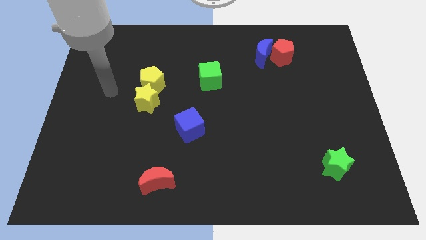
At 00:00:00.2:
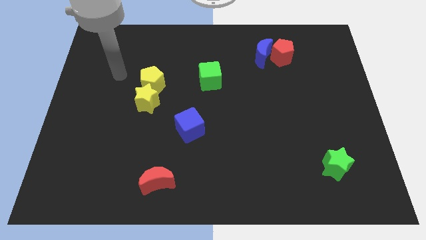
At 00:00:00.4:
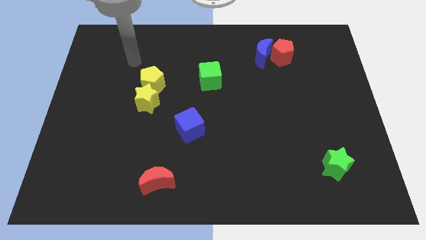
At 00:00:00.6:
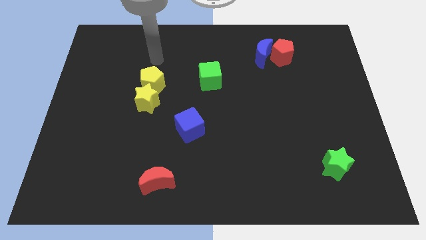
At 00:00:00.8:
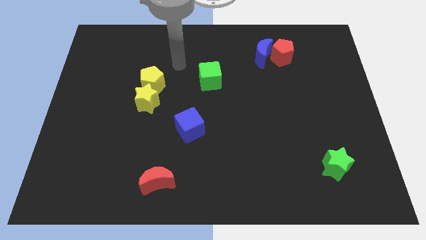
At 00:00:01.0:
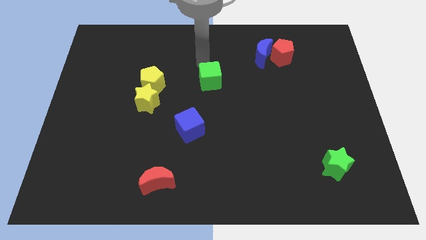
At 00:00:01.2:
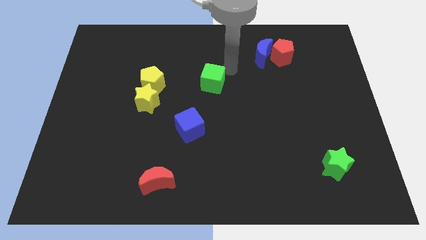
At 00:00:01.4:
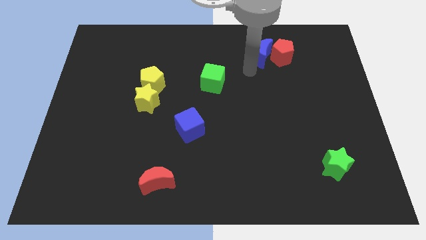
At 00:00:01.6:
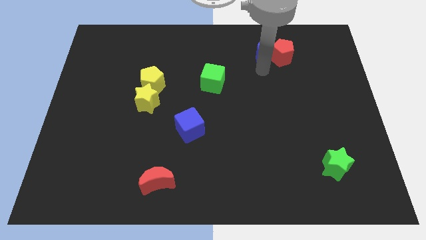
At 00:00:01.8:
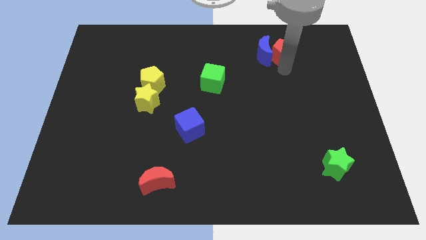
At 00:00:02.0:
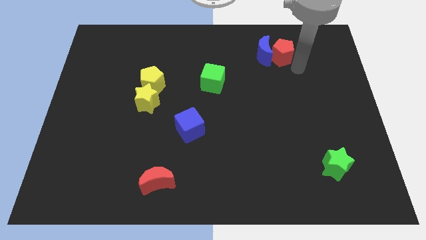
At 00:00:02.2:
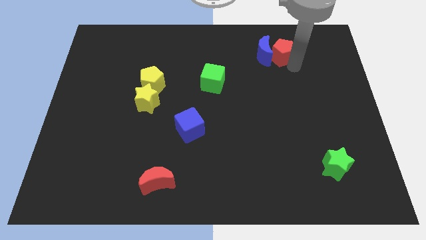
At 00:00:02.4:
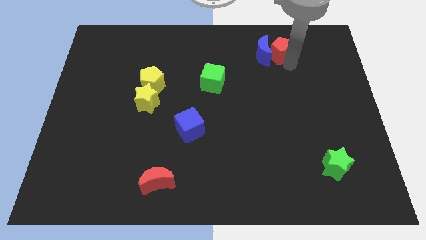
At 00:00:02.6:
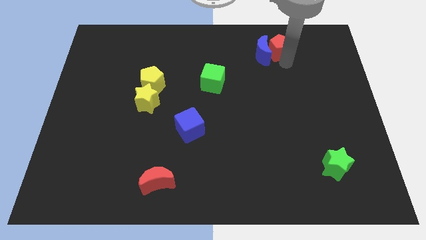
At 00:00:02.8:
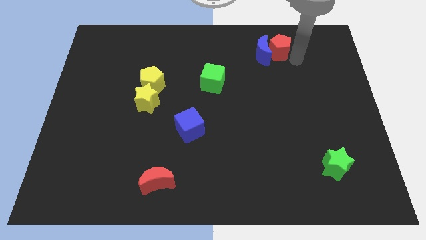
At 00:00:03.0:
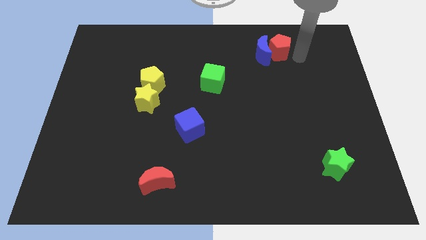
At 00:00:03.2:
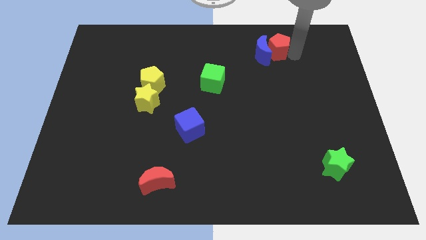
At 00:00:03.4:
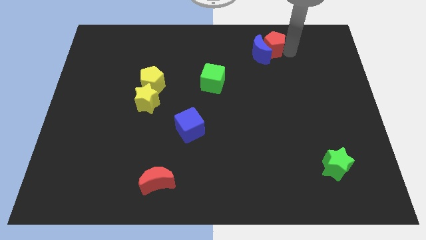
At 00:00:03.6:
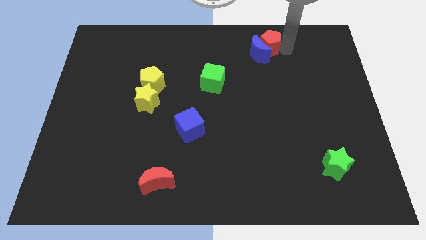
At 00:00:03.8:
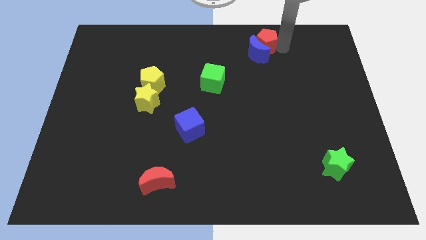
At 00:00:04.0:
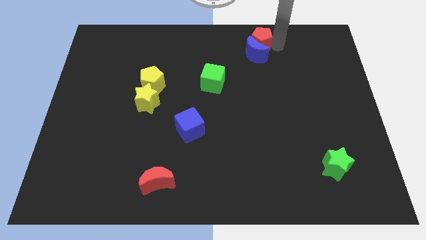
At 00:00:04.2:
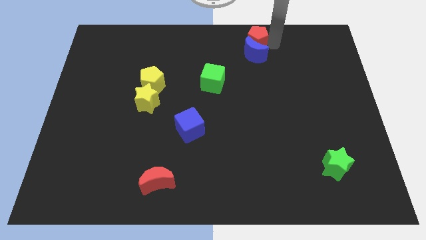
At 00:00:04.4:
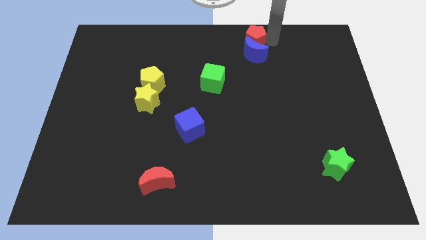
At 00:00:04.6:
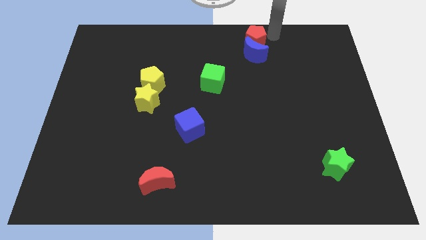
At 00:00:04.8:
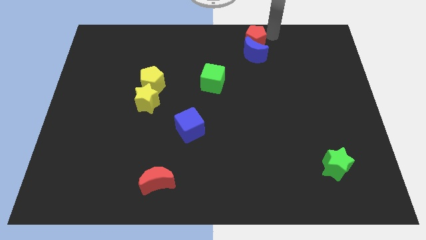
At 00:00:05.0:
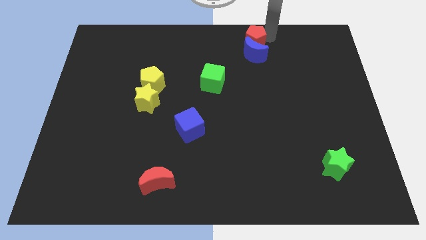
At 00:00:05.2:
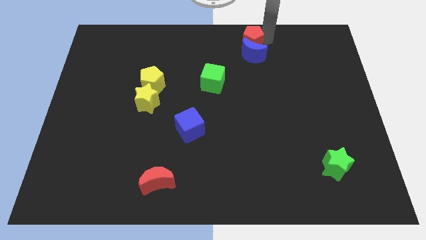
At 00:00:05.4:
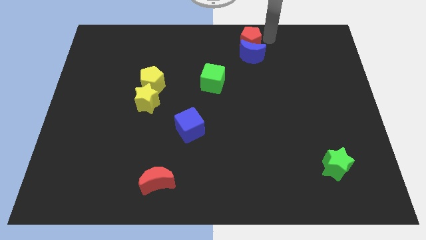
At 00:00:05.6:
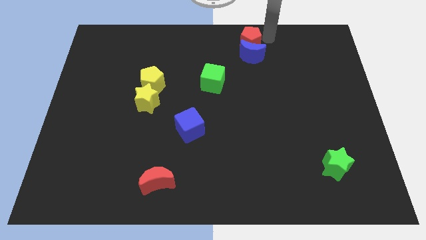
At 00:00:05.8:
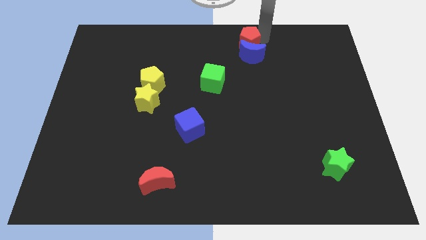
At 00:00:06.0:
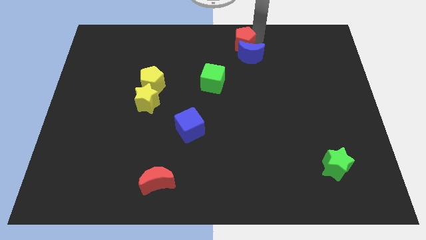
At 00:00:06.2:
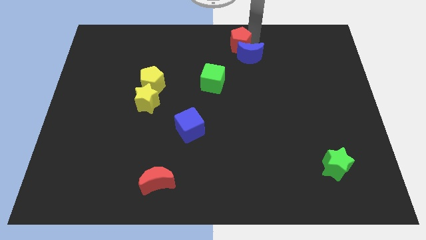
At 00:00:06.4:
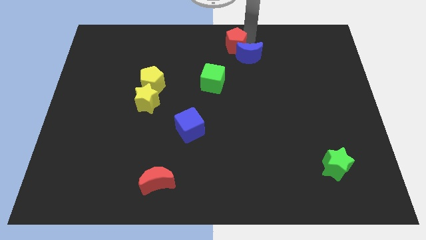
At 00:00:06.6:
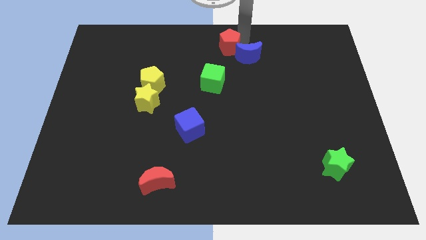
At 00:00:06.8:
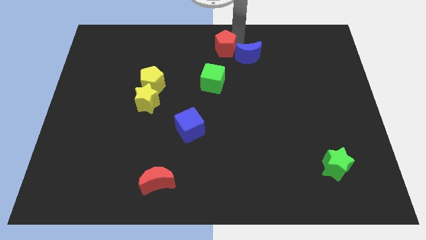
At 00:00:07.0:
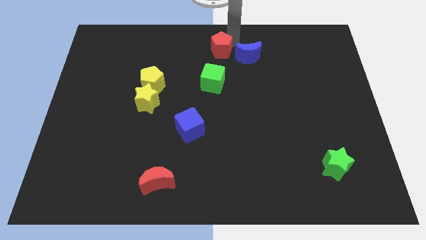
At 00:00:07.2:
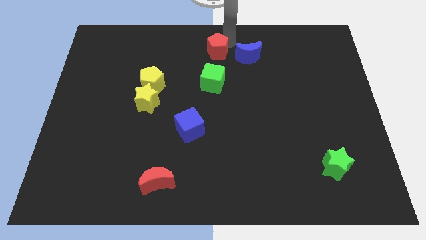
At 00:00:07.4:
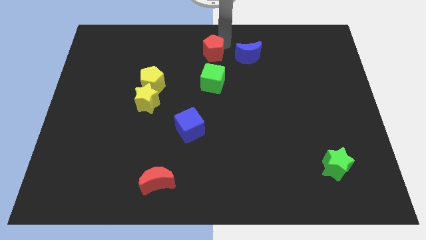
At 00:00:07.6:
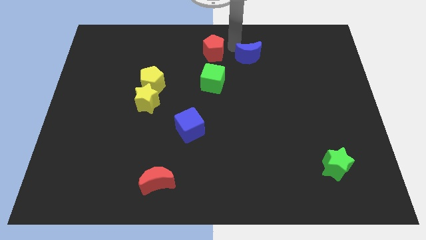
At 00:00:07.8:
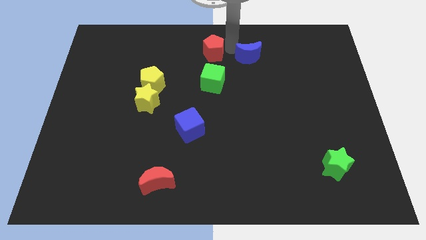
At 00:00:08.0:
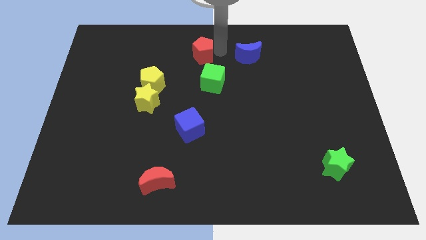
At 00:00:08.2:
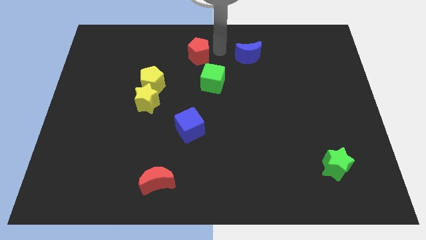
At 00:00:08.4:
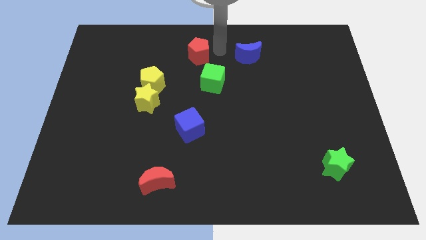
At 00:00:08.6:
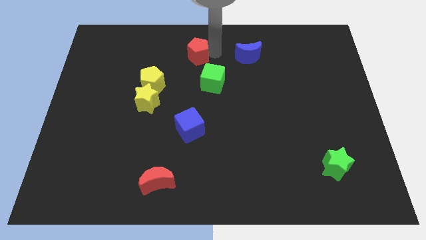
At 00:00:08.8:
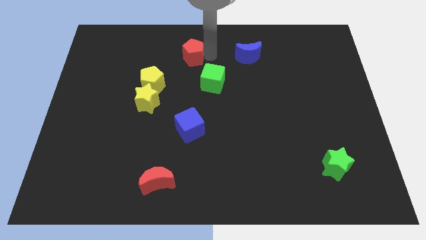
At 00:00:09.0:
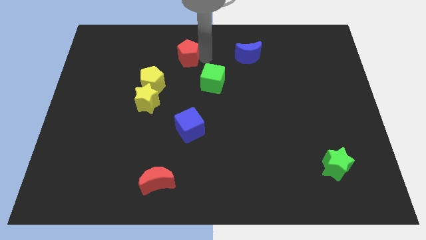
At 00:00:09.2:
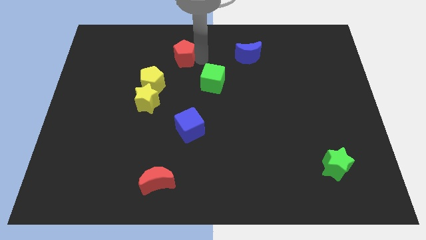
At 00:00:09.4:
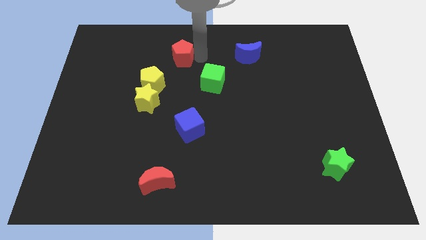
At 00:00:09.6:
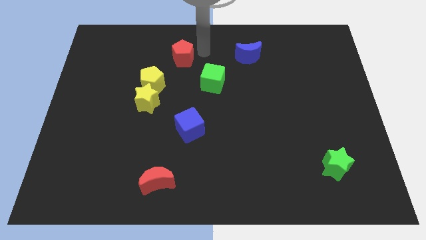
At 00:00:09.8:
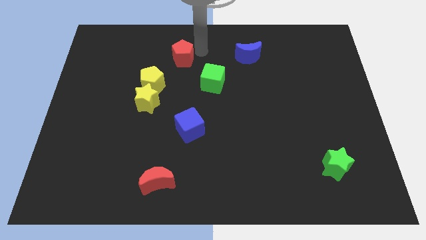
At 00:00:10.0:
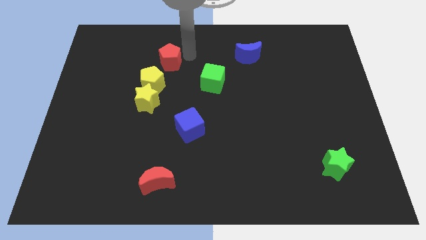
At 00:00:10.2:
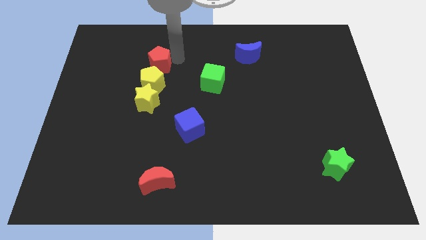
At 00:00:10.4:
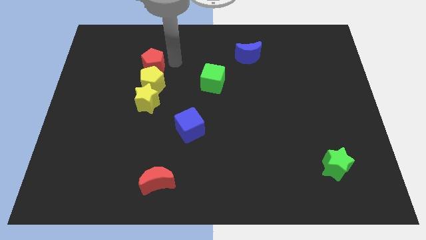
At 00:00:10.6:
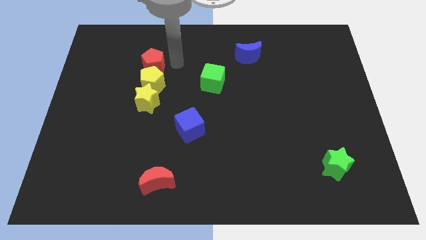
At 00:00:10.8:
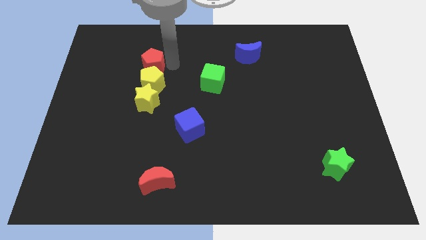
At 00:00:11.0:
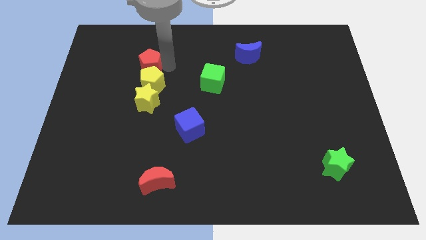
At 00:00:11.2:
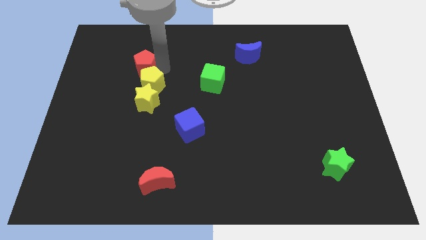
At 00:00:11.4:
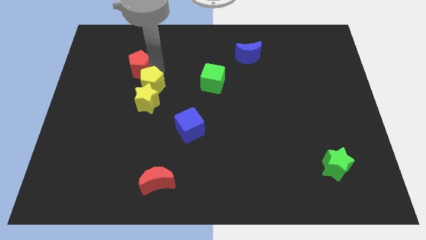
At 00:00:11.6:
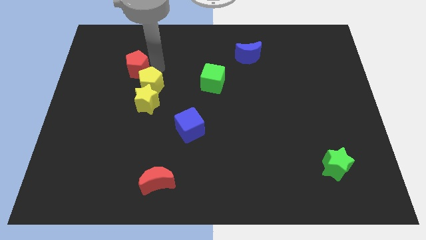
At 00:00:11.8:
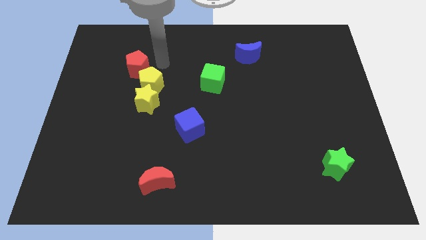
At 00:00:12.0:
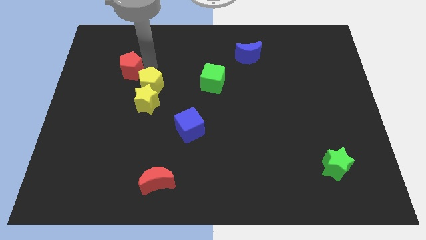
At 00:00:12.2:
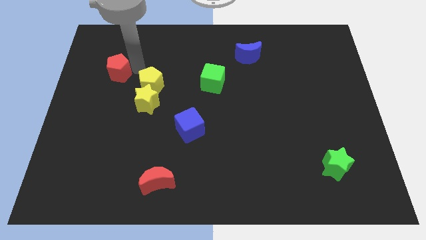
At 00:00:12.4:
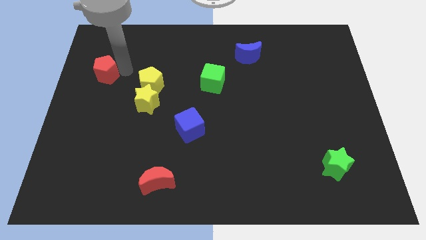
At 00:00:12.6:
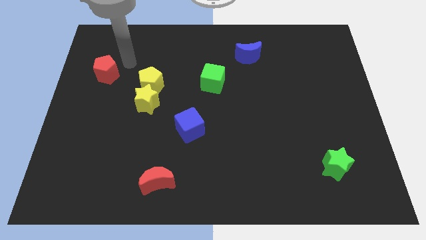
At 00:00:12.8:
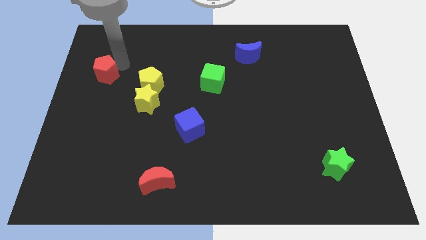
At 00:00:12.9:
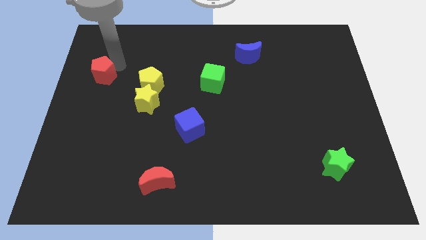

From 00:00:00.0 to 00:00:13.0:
move the red pentagon to the left side of the board
